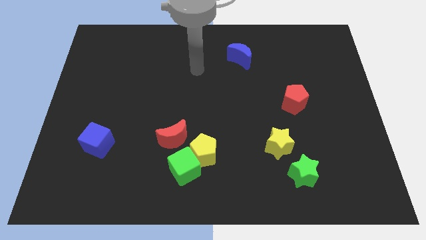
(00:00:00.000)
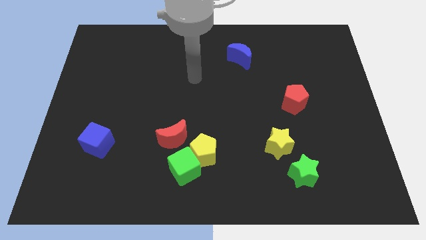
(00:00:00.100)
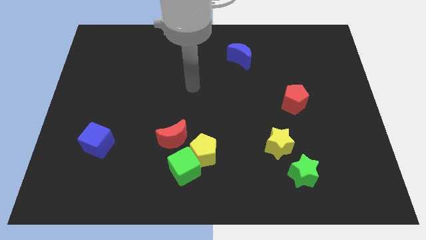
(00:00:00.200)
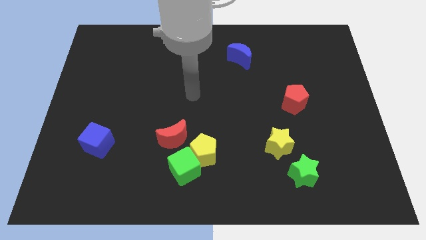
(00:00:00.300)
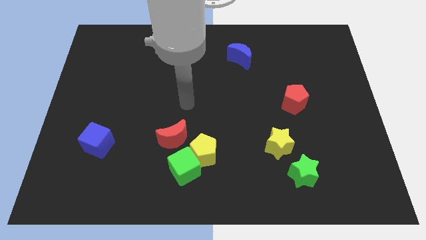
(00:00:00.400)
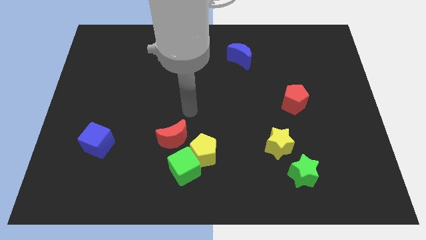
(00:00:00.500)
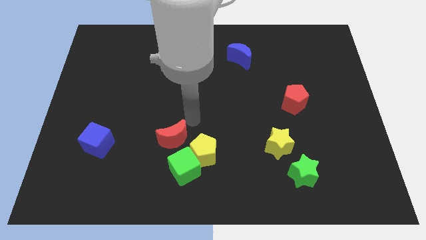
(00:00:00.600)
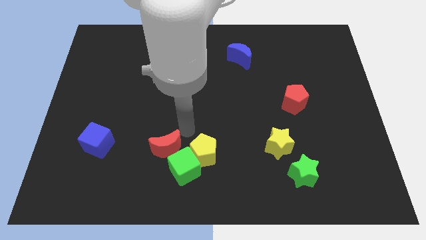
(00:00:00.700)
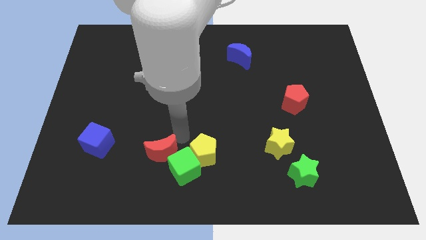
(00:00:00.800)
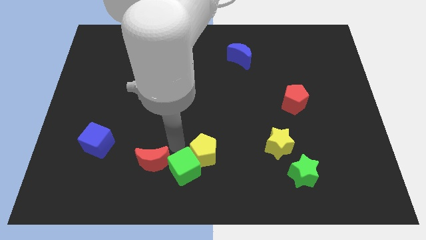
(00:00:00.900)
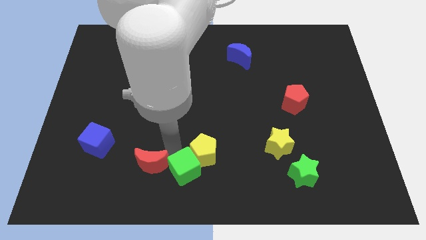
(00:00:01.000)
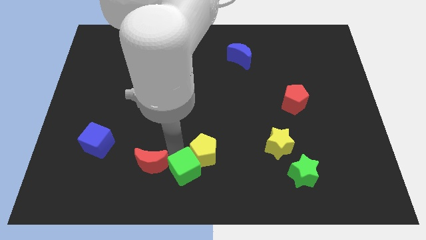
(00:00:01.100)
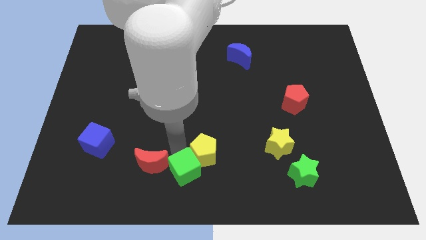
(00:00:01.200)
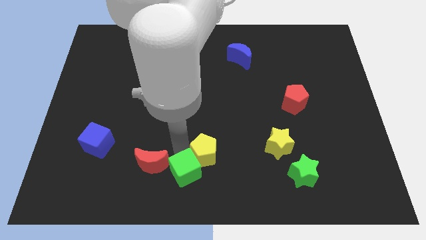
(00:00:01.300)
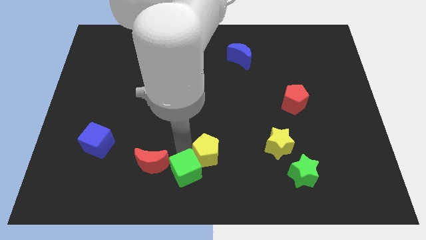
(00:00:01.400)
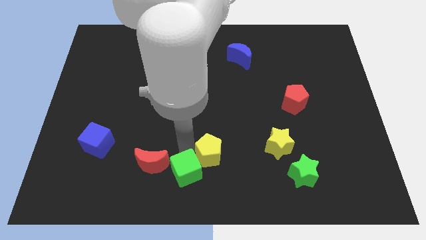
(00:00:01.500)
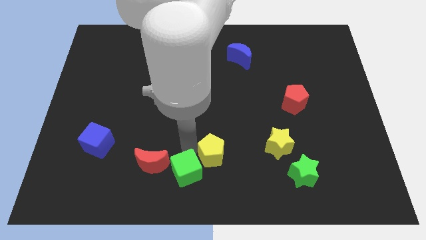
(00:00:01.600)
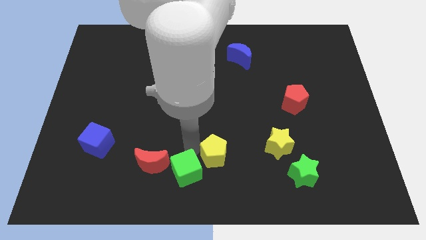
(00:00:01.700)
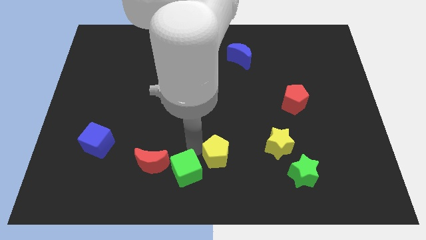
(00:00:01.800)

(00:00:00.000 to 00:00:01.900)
move the yellow pentagon away from the green cube and red moon

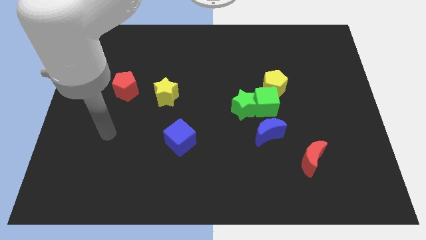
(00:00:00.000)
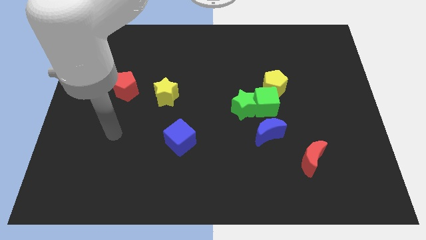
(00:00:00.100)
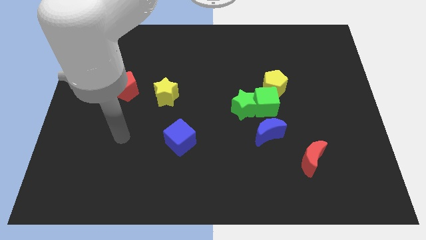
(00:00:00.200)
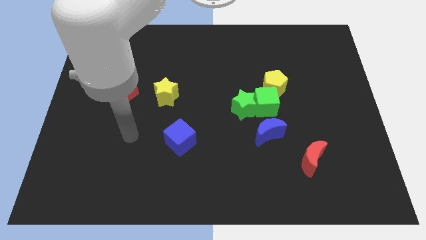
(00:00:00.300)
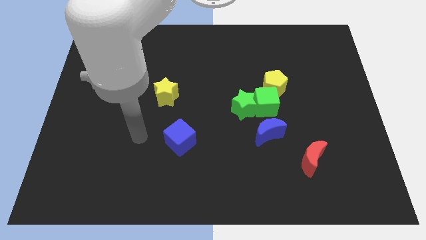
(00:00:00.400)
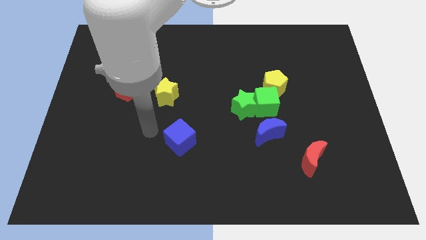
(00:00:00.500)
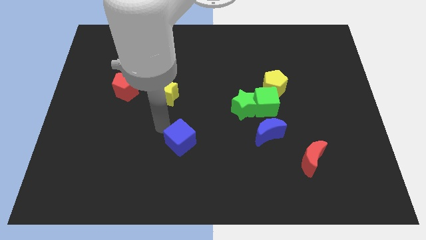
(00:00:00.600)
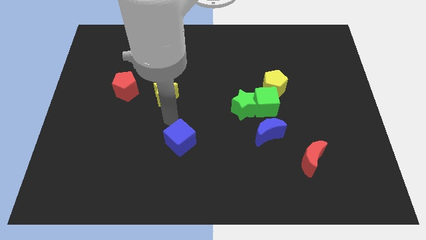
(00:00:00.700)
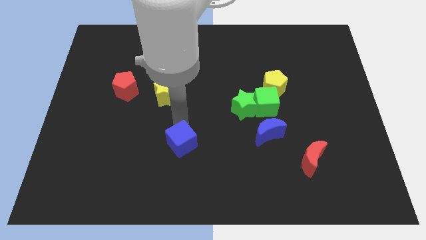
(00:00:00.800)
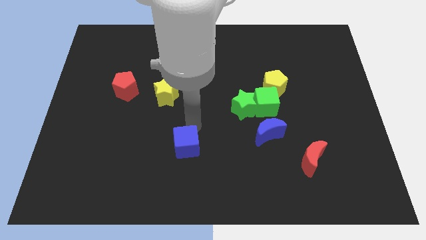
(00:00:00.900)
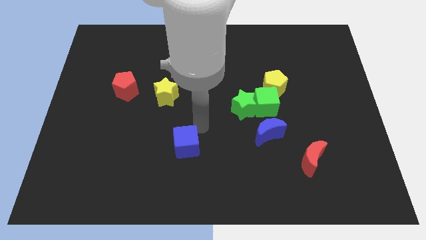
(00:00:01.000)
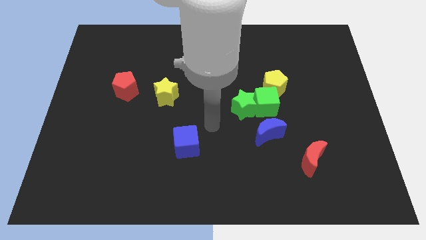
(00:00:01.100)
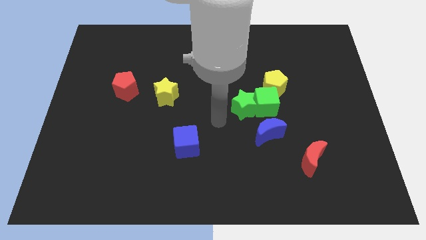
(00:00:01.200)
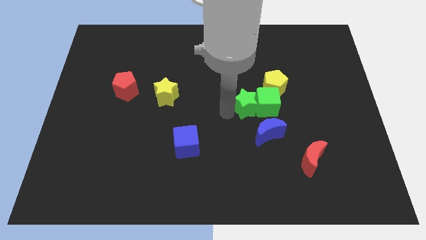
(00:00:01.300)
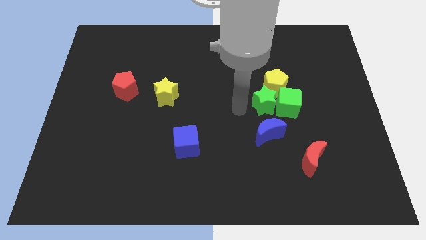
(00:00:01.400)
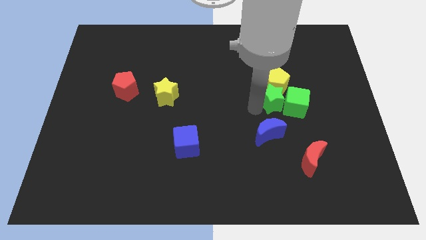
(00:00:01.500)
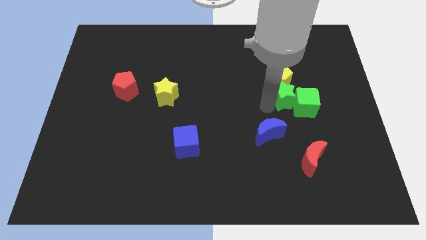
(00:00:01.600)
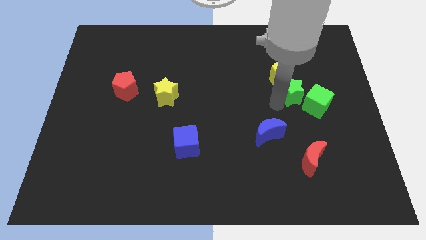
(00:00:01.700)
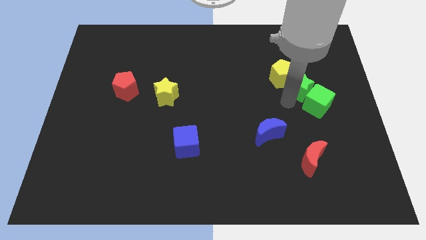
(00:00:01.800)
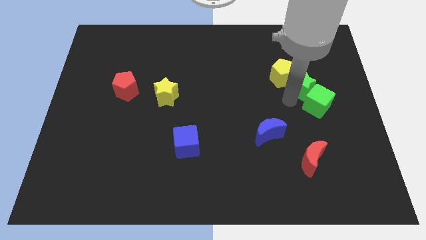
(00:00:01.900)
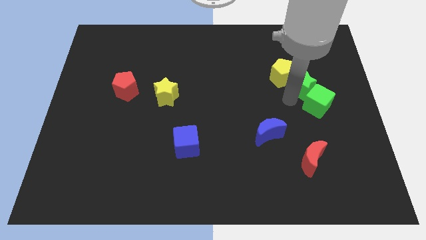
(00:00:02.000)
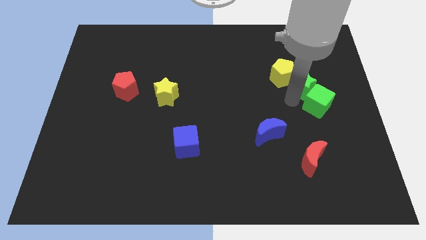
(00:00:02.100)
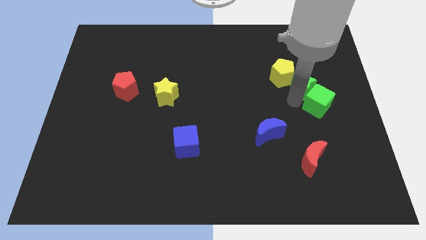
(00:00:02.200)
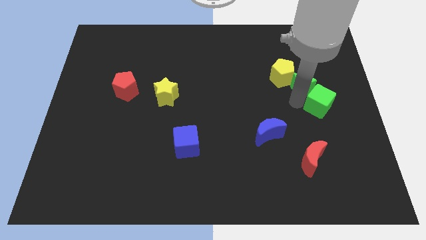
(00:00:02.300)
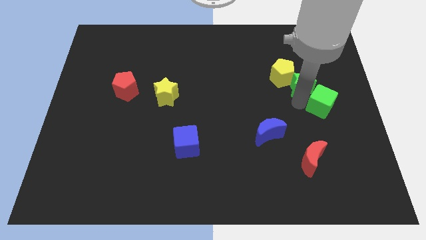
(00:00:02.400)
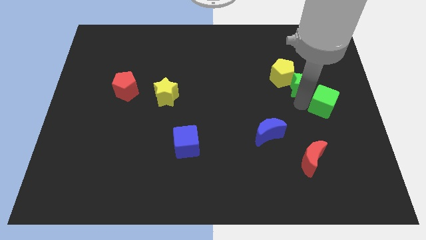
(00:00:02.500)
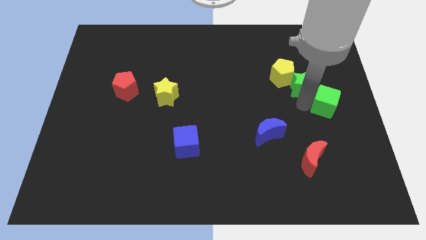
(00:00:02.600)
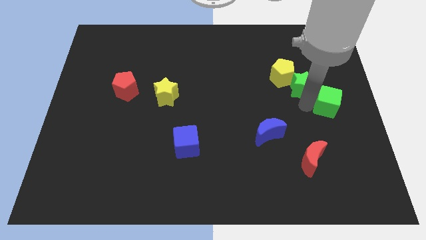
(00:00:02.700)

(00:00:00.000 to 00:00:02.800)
pull the green cube apart from the group

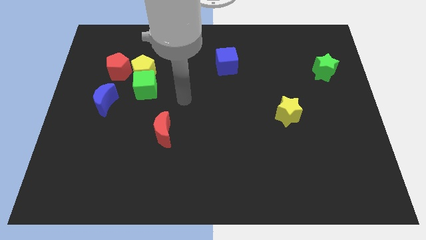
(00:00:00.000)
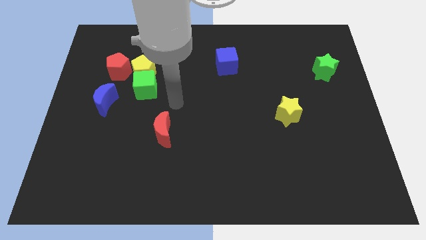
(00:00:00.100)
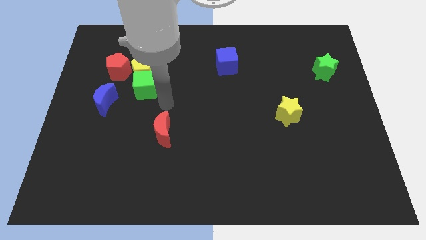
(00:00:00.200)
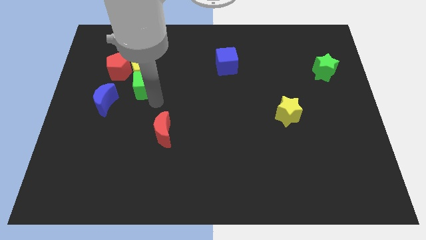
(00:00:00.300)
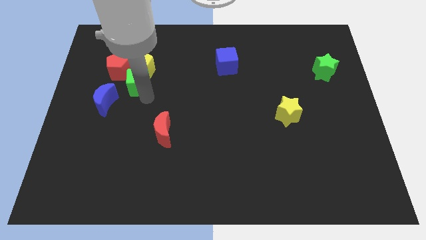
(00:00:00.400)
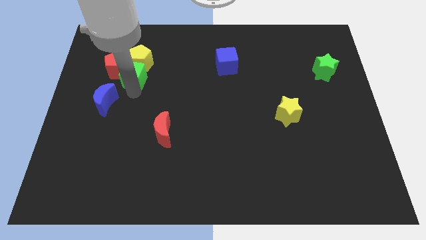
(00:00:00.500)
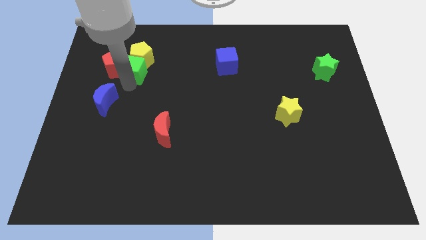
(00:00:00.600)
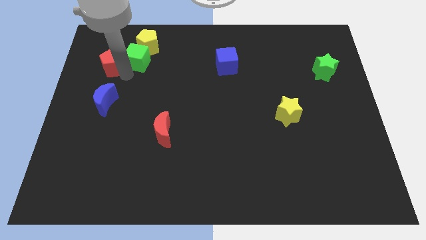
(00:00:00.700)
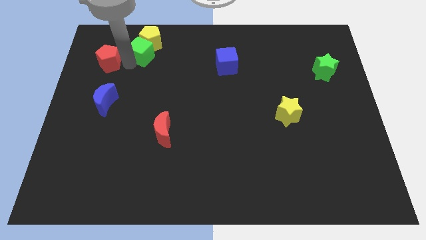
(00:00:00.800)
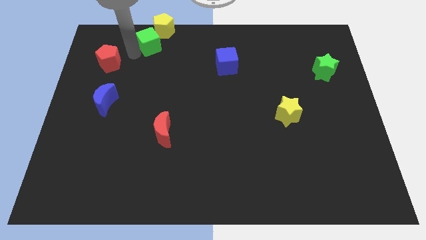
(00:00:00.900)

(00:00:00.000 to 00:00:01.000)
move the yellow pentagon away from the green cube and red pentagon

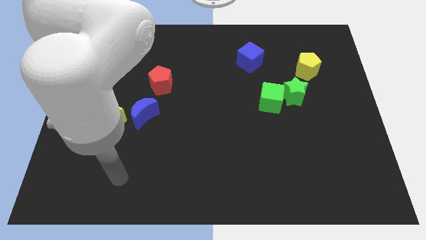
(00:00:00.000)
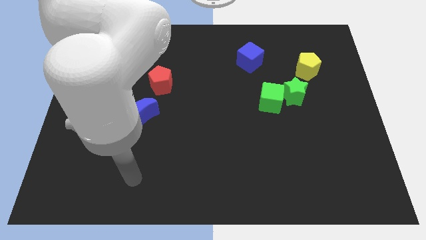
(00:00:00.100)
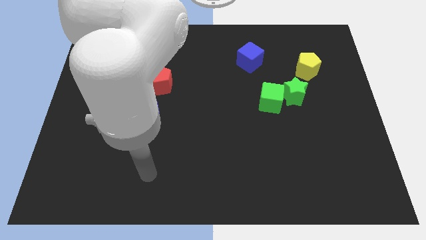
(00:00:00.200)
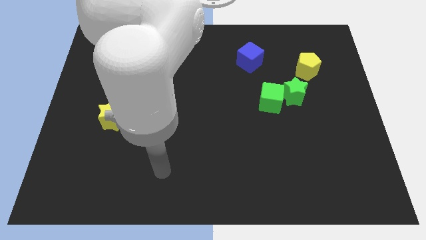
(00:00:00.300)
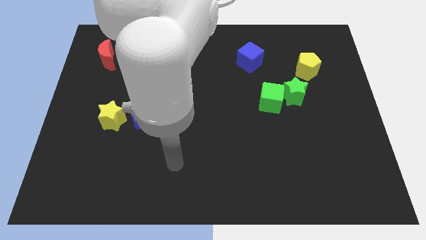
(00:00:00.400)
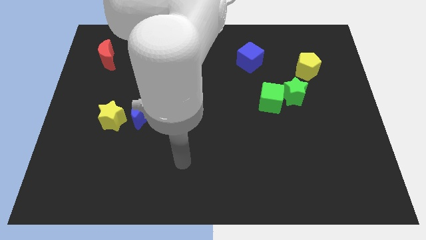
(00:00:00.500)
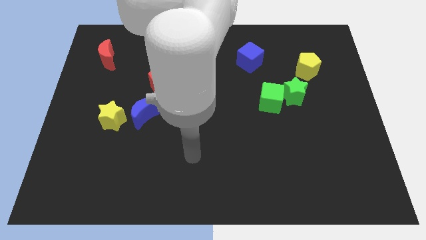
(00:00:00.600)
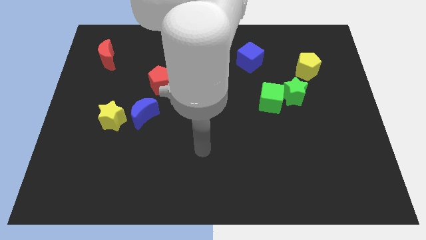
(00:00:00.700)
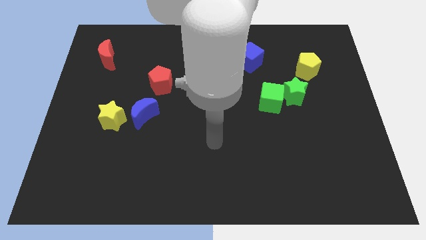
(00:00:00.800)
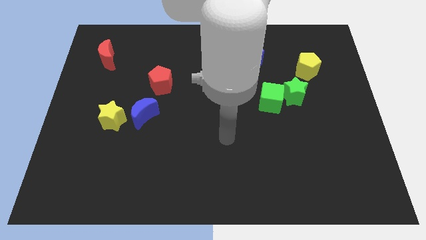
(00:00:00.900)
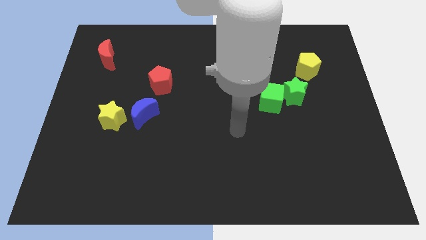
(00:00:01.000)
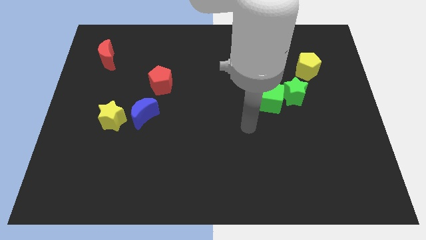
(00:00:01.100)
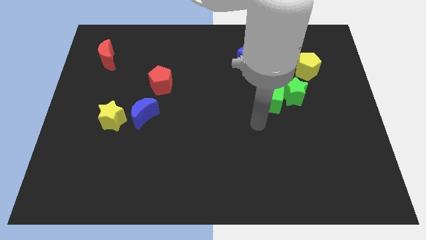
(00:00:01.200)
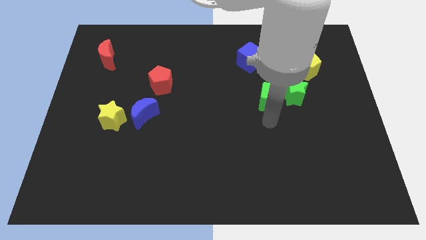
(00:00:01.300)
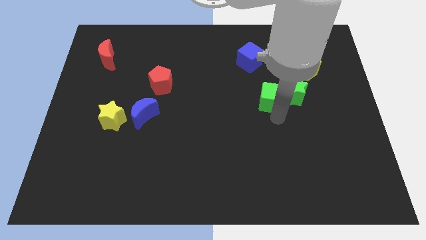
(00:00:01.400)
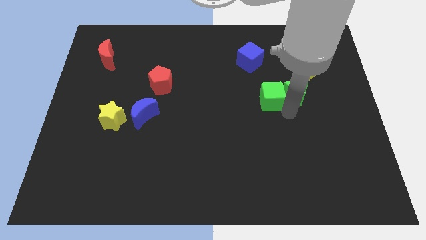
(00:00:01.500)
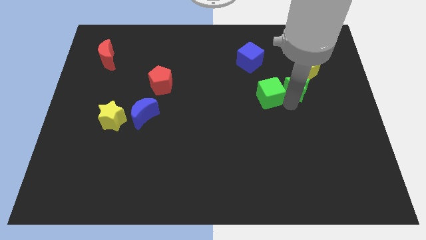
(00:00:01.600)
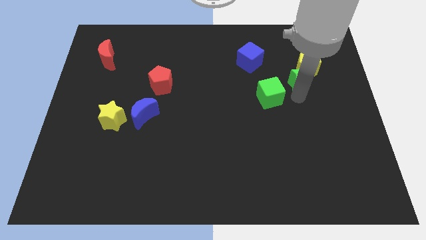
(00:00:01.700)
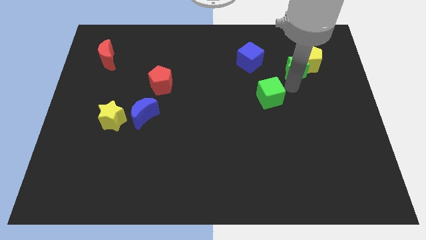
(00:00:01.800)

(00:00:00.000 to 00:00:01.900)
move the green cube away from the green star

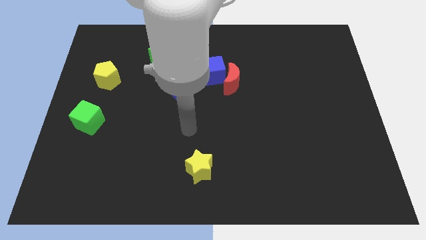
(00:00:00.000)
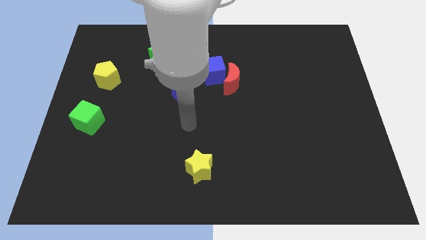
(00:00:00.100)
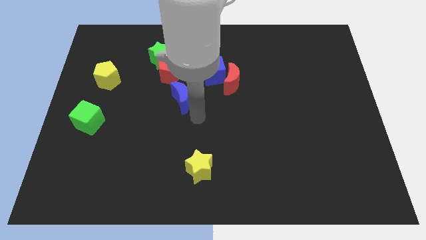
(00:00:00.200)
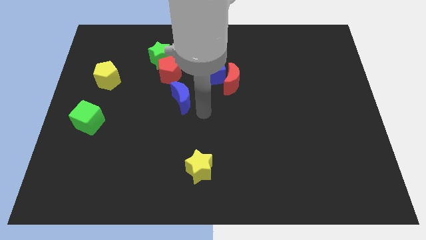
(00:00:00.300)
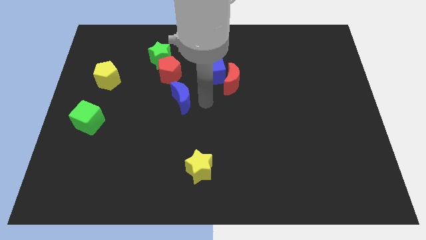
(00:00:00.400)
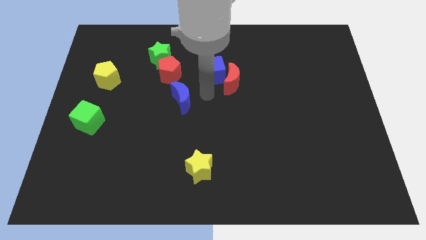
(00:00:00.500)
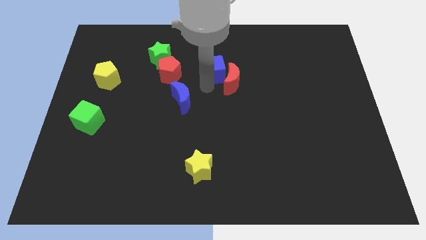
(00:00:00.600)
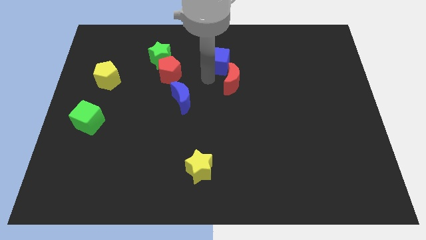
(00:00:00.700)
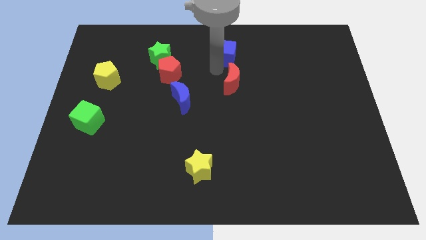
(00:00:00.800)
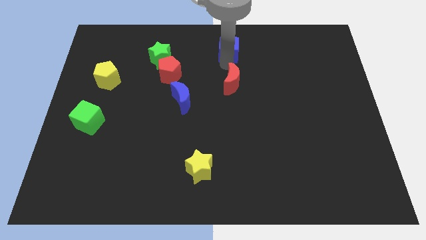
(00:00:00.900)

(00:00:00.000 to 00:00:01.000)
move the red moon away from the blue cube

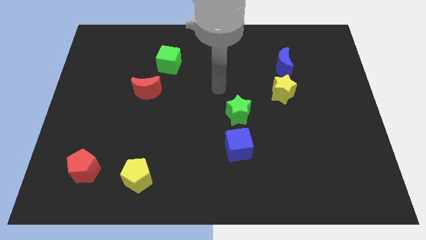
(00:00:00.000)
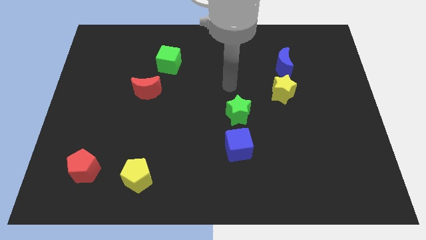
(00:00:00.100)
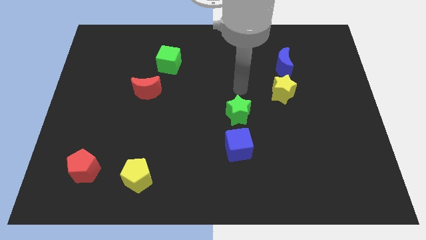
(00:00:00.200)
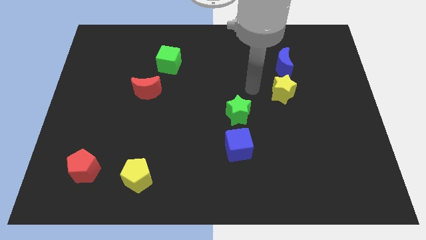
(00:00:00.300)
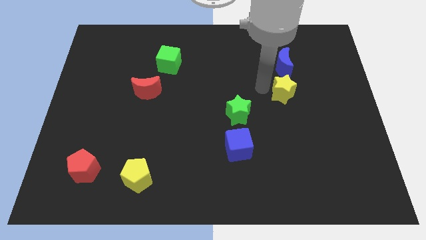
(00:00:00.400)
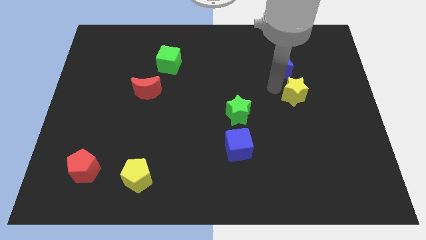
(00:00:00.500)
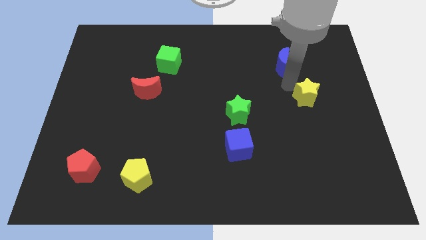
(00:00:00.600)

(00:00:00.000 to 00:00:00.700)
pull the blue moon apart from the yellow star
